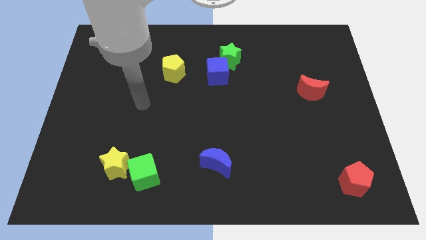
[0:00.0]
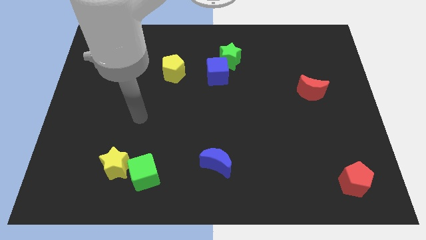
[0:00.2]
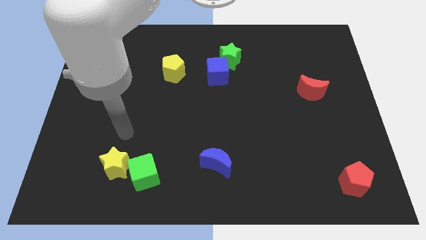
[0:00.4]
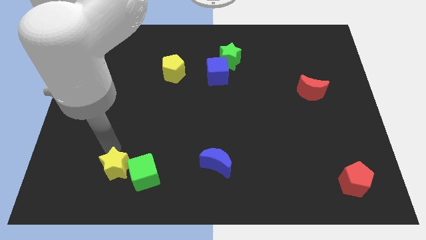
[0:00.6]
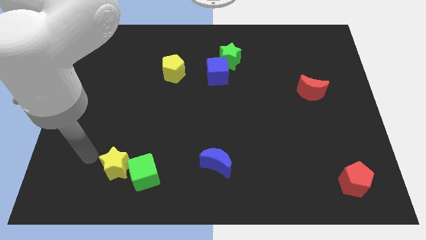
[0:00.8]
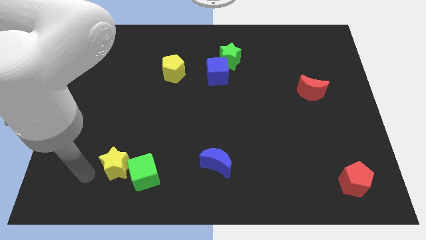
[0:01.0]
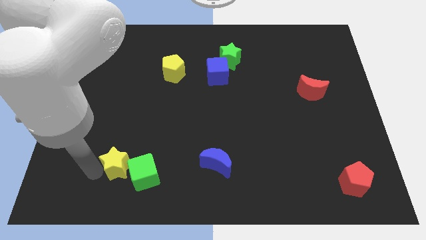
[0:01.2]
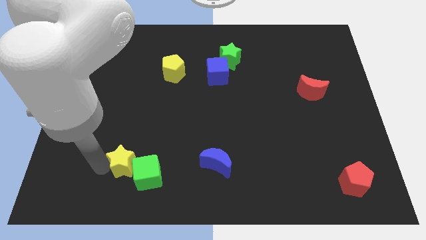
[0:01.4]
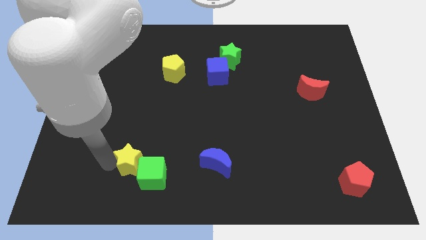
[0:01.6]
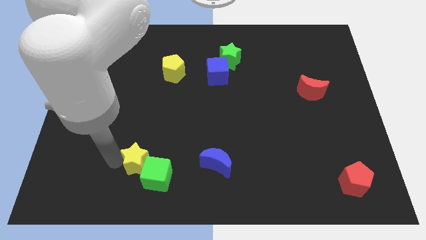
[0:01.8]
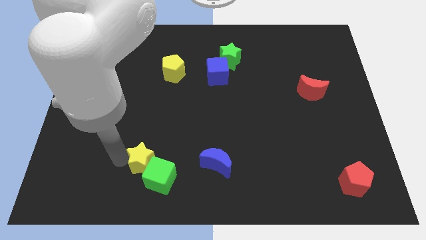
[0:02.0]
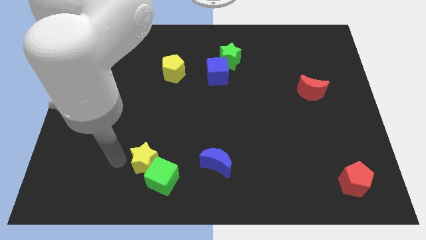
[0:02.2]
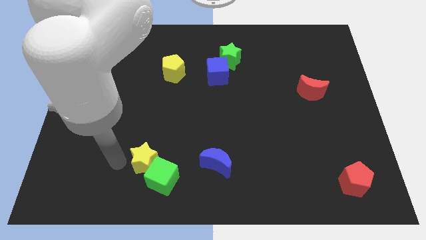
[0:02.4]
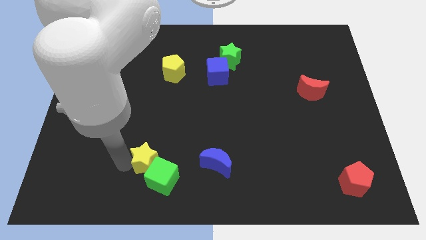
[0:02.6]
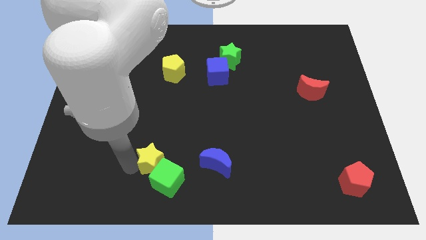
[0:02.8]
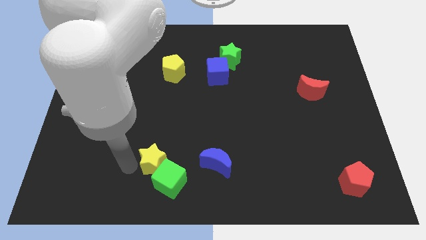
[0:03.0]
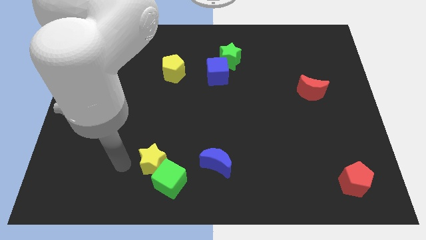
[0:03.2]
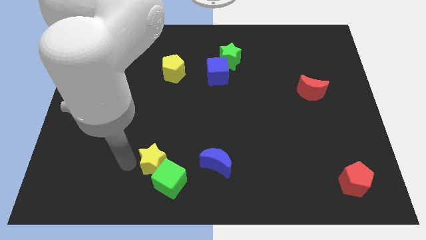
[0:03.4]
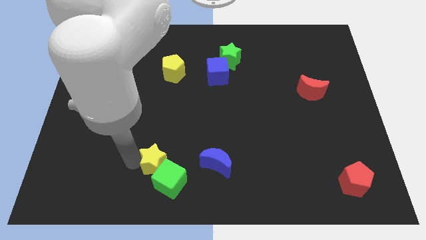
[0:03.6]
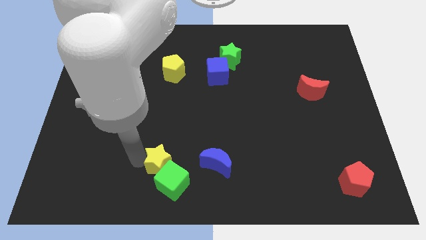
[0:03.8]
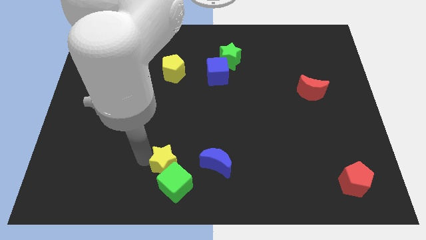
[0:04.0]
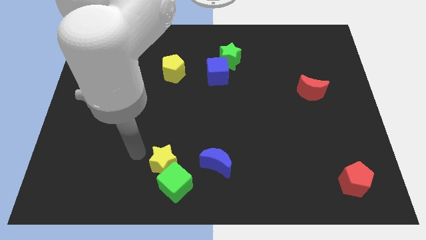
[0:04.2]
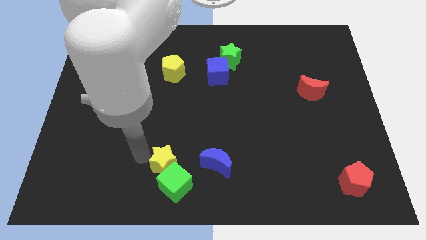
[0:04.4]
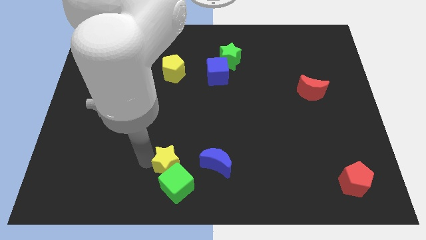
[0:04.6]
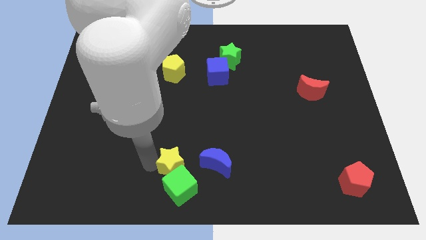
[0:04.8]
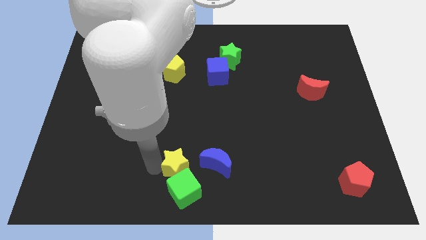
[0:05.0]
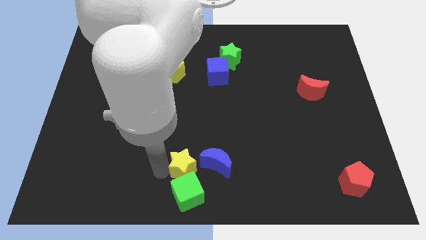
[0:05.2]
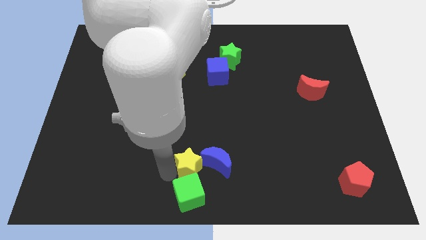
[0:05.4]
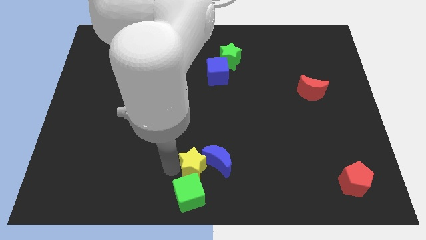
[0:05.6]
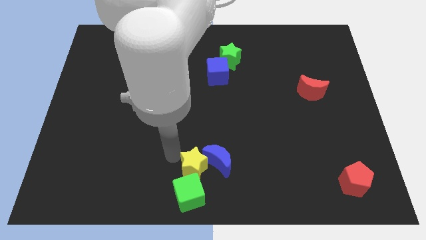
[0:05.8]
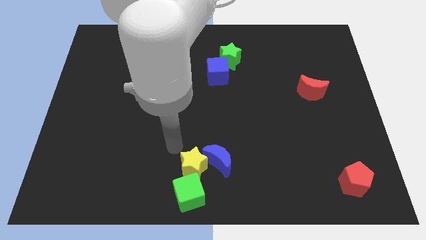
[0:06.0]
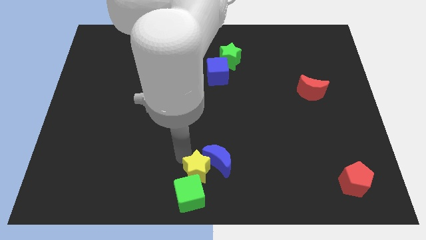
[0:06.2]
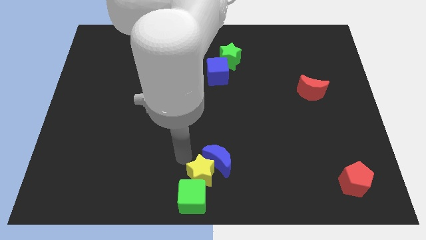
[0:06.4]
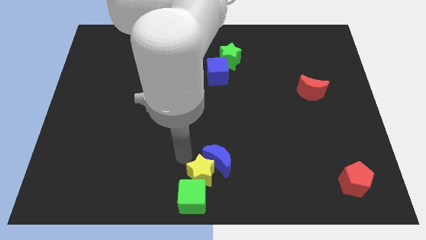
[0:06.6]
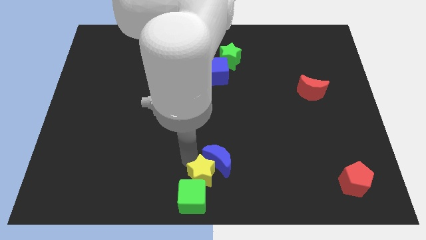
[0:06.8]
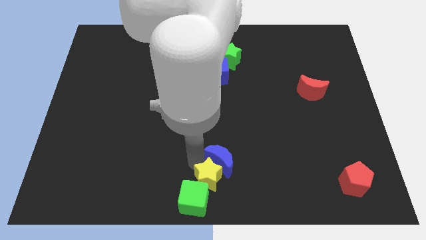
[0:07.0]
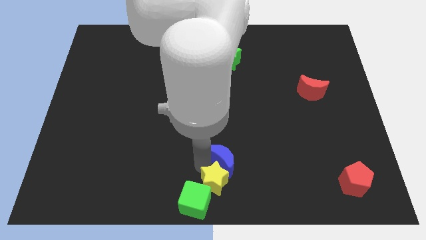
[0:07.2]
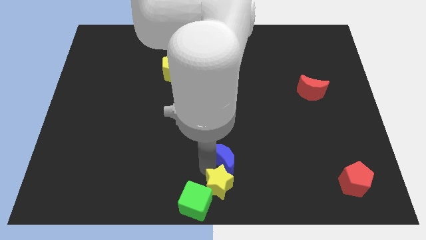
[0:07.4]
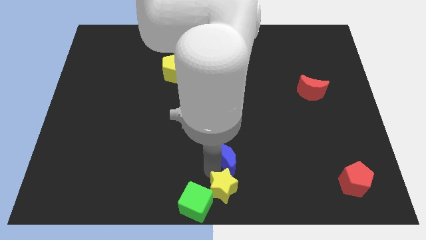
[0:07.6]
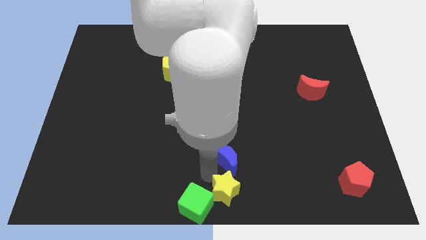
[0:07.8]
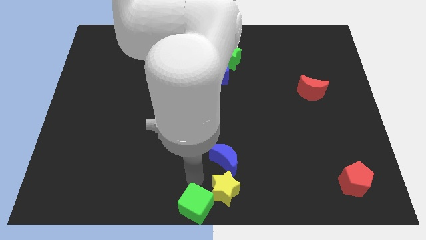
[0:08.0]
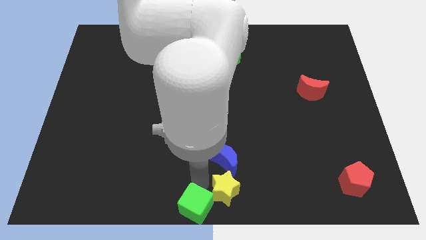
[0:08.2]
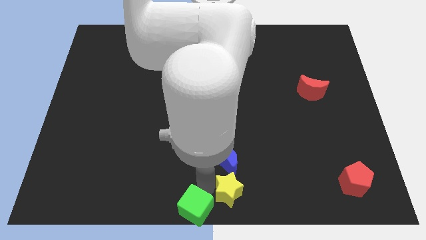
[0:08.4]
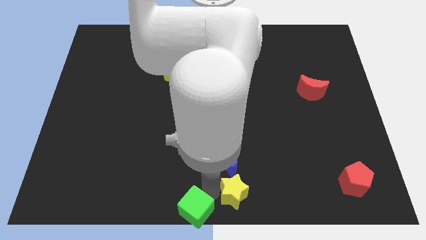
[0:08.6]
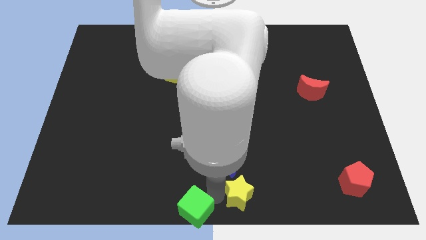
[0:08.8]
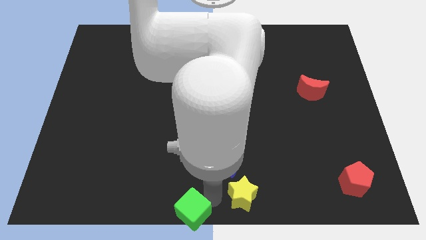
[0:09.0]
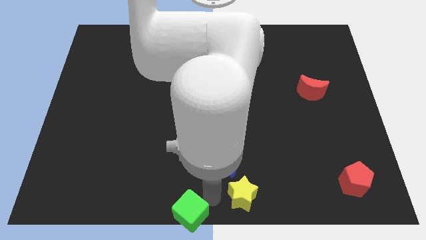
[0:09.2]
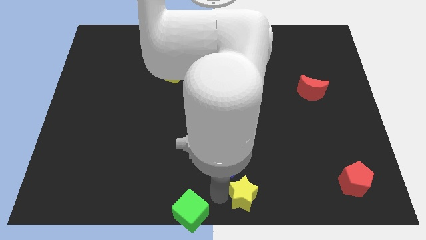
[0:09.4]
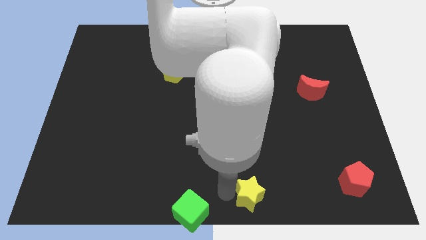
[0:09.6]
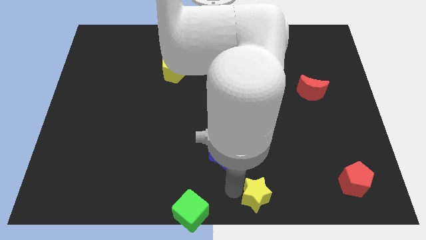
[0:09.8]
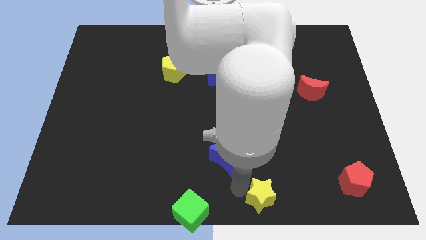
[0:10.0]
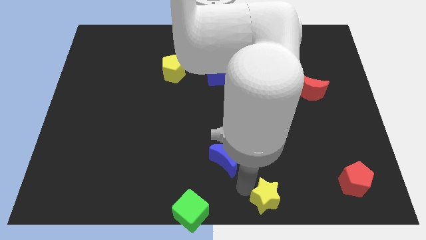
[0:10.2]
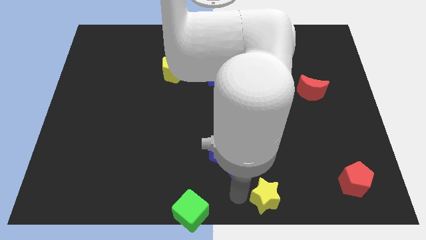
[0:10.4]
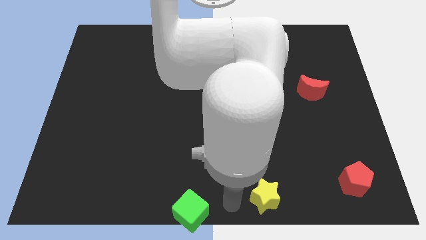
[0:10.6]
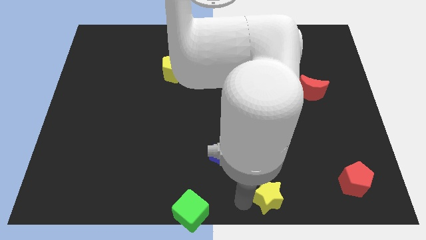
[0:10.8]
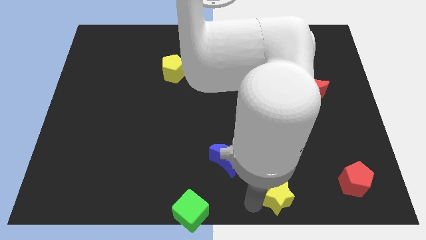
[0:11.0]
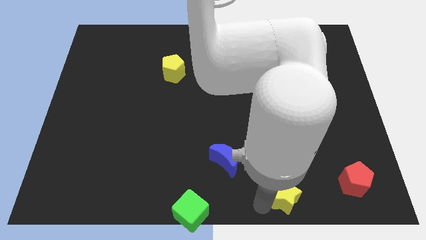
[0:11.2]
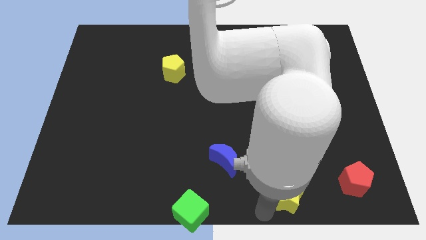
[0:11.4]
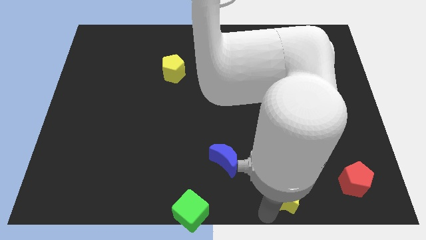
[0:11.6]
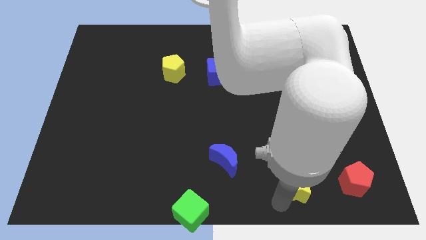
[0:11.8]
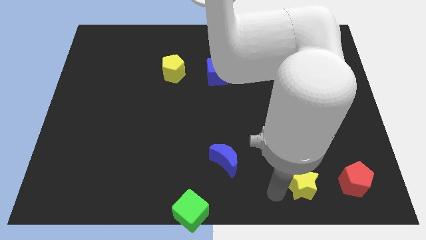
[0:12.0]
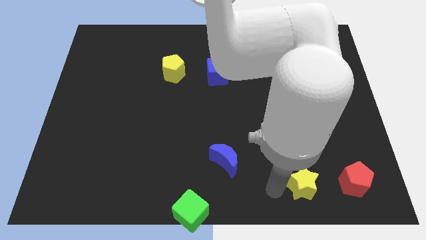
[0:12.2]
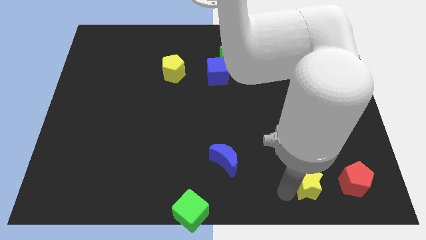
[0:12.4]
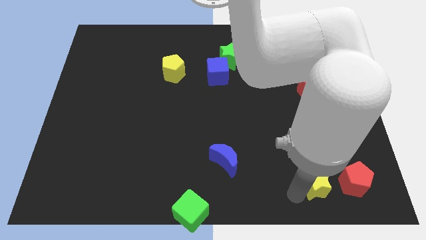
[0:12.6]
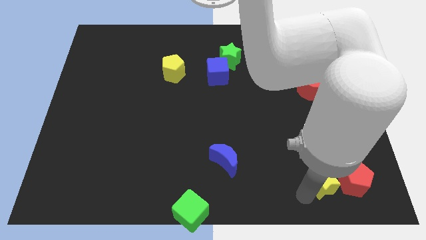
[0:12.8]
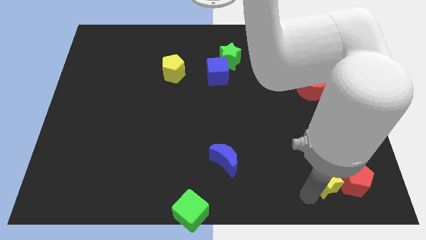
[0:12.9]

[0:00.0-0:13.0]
push the yellow star to the red pentagon
